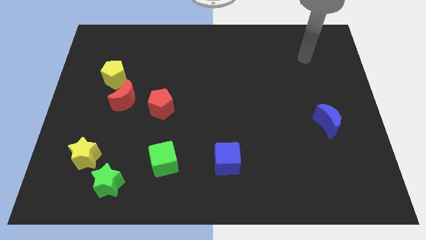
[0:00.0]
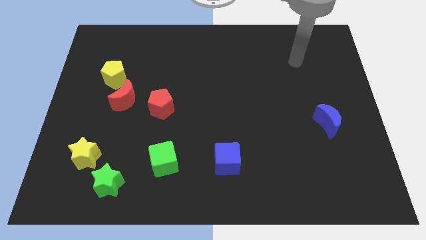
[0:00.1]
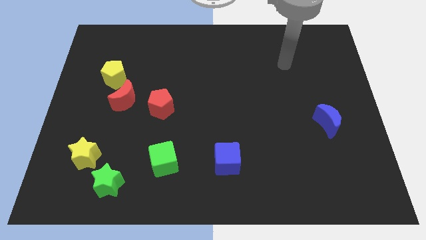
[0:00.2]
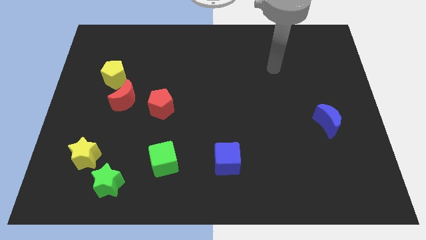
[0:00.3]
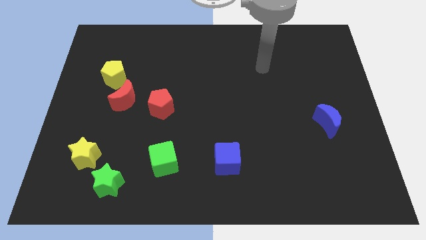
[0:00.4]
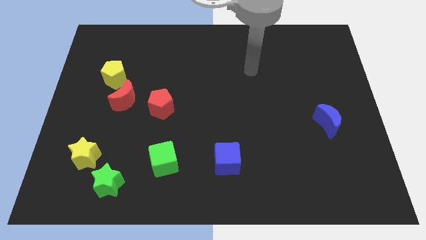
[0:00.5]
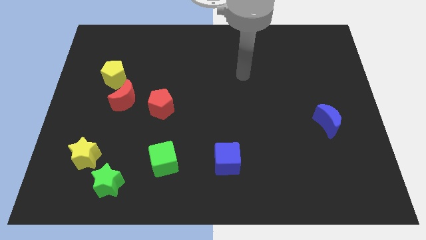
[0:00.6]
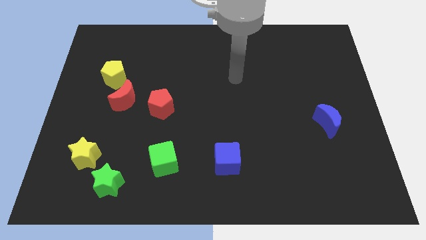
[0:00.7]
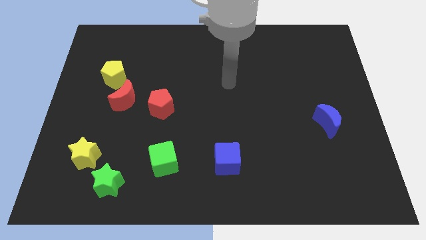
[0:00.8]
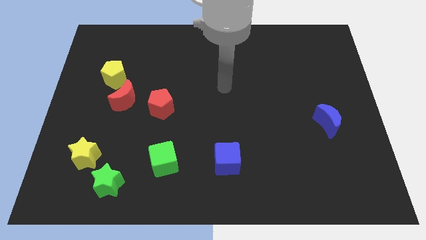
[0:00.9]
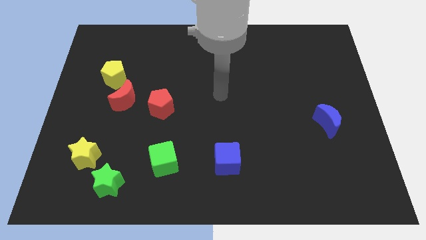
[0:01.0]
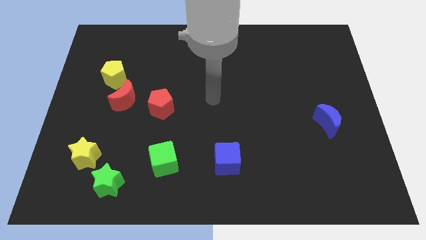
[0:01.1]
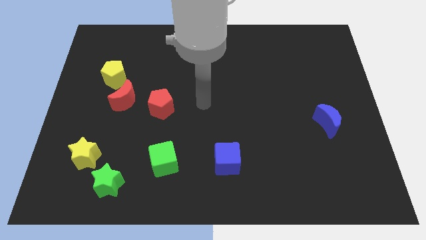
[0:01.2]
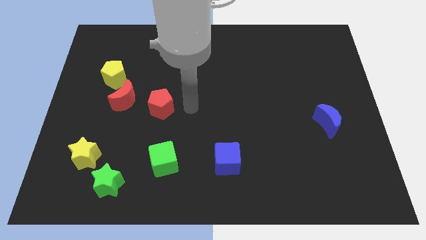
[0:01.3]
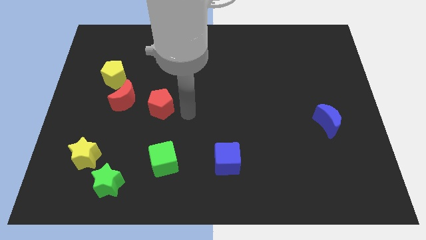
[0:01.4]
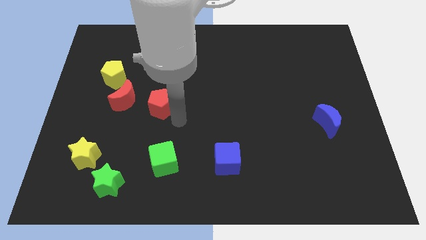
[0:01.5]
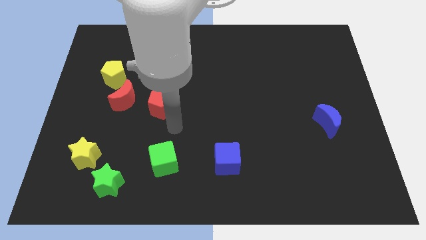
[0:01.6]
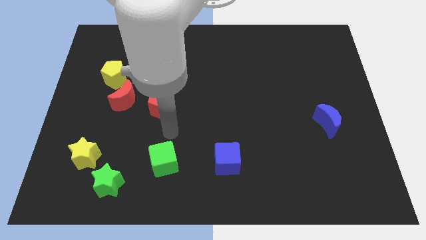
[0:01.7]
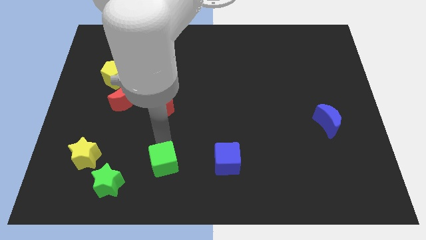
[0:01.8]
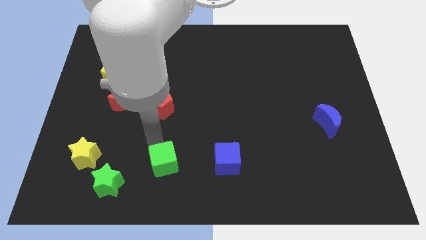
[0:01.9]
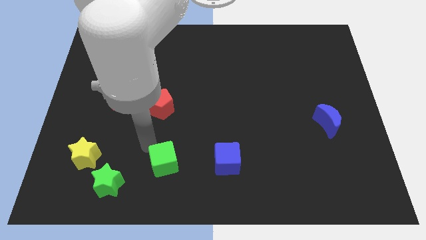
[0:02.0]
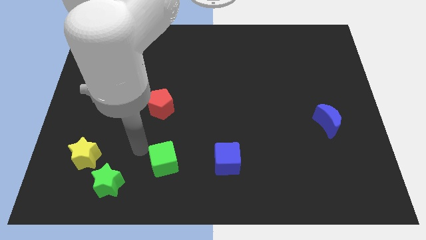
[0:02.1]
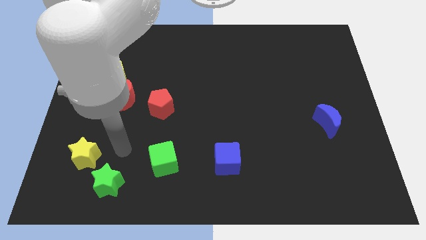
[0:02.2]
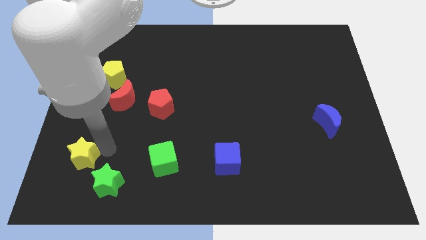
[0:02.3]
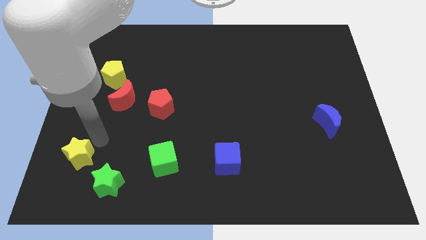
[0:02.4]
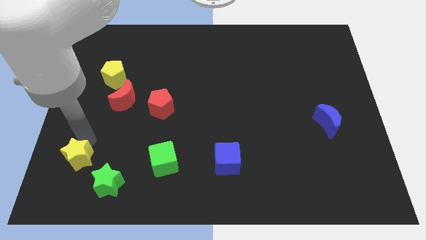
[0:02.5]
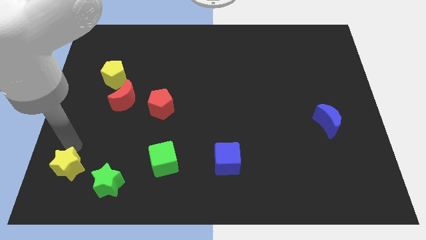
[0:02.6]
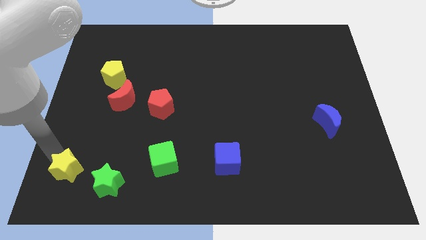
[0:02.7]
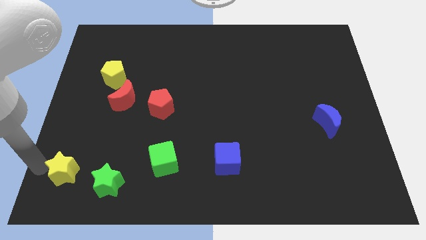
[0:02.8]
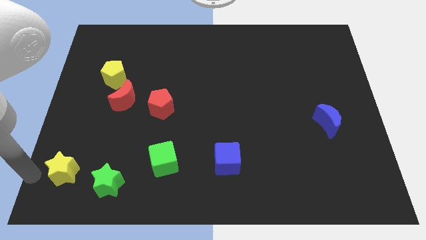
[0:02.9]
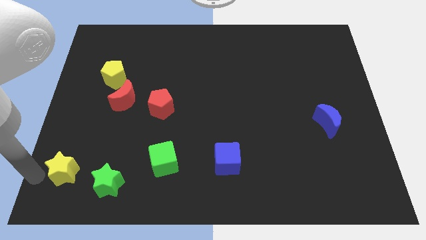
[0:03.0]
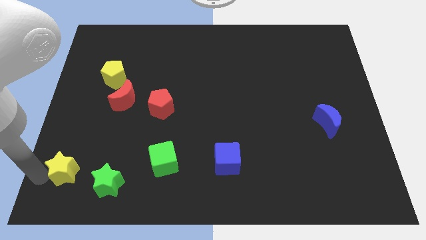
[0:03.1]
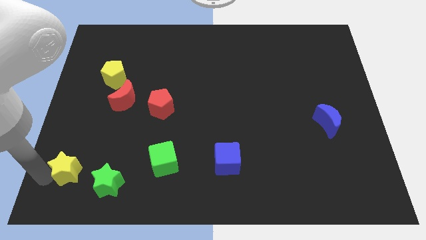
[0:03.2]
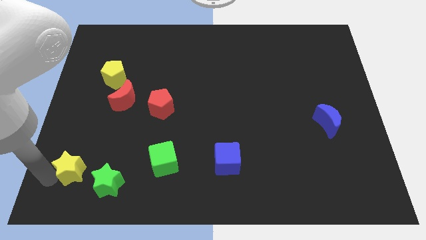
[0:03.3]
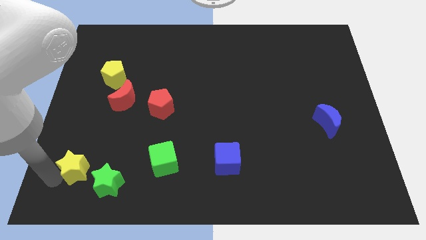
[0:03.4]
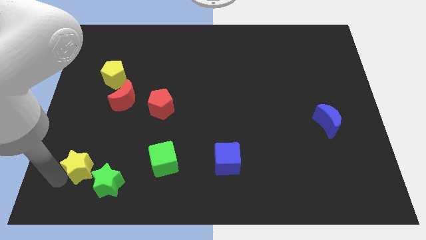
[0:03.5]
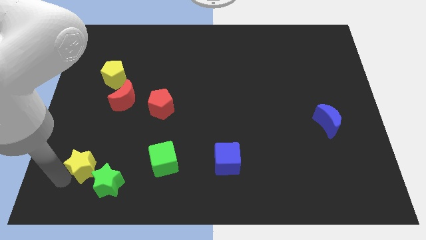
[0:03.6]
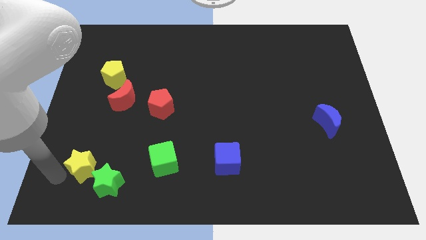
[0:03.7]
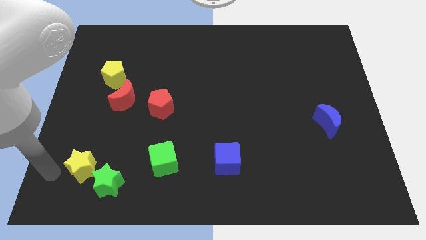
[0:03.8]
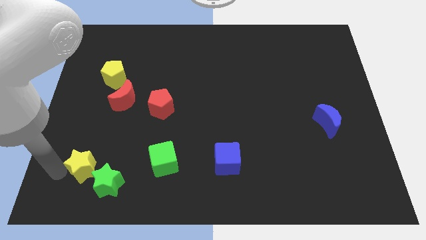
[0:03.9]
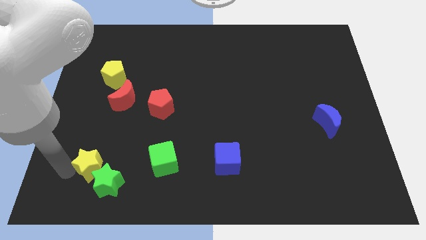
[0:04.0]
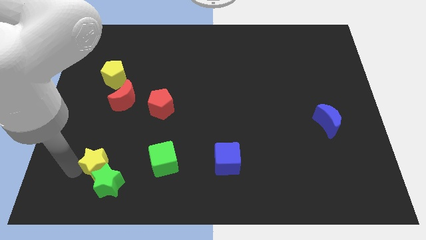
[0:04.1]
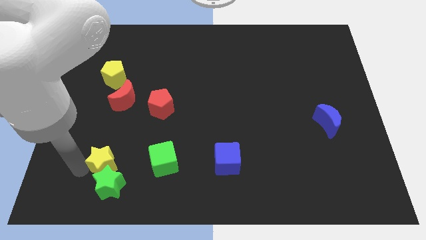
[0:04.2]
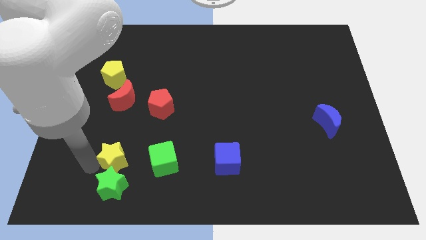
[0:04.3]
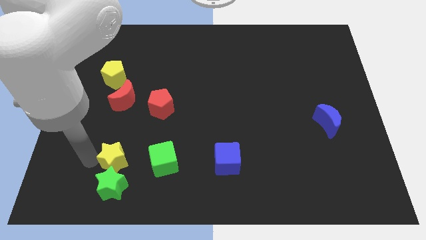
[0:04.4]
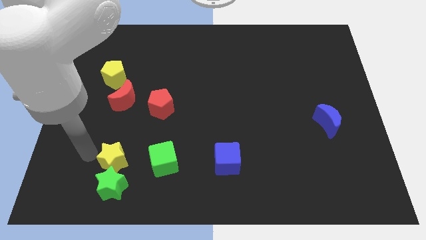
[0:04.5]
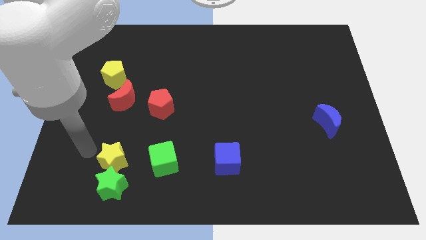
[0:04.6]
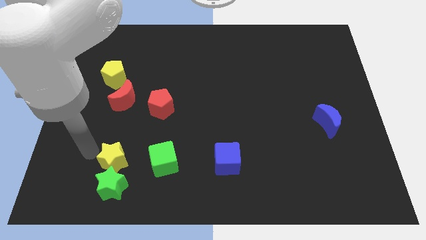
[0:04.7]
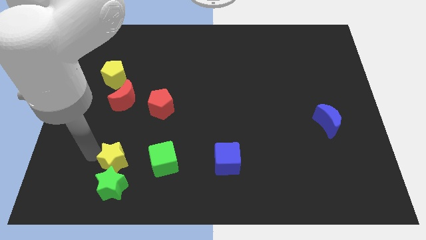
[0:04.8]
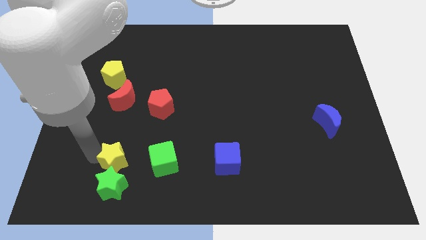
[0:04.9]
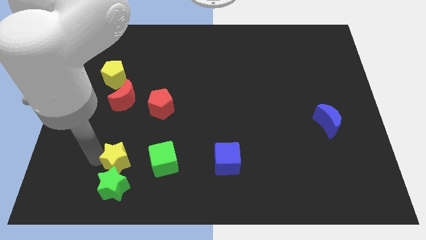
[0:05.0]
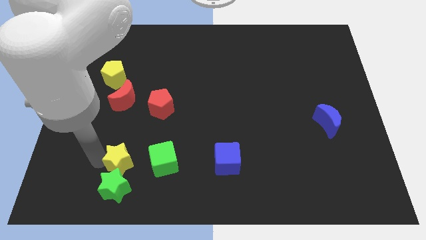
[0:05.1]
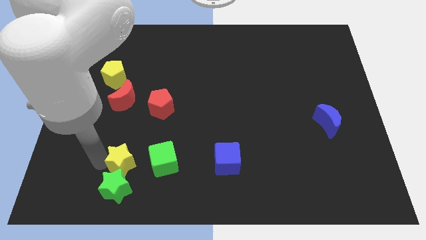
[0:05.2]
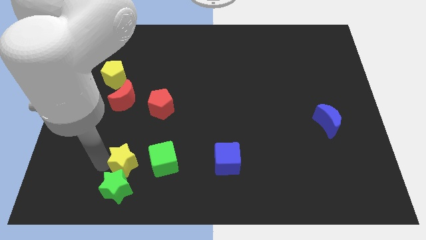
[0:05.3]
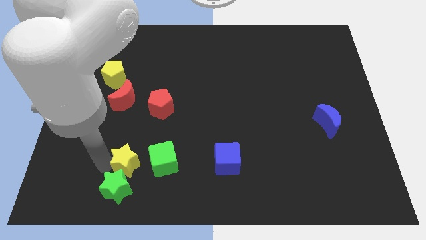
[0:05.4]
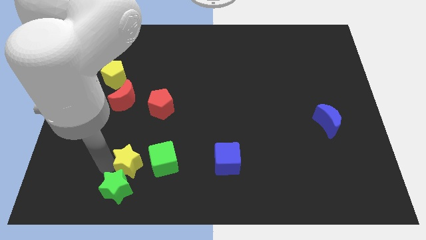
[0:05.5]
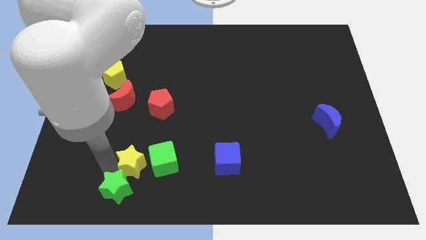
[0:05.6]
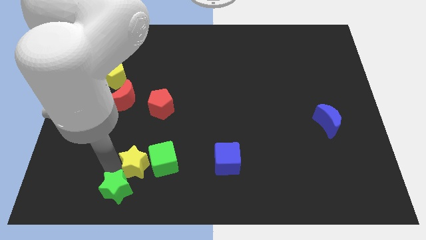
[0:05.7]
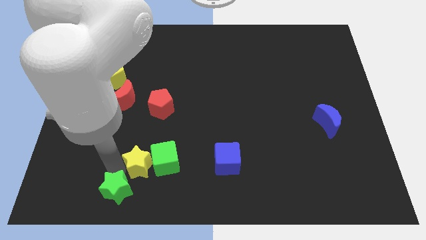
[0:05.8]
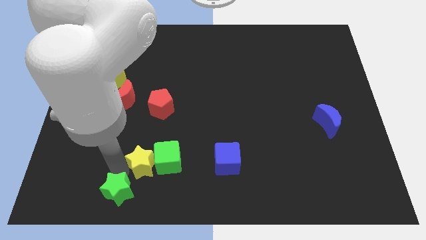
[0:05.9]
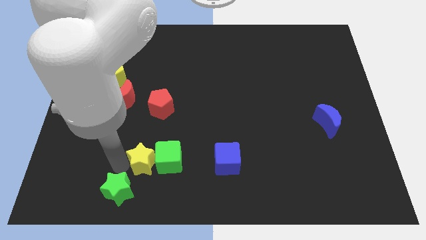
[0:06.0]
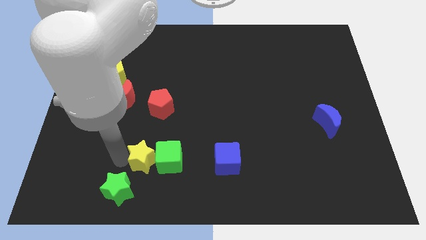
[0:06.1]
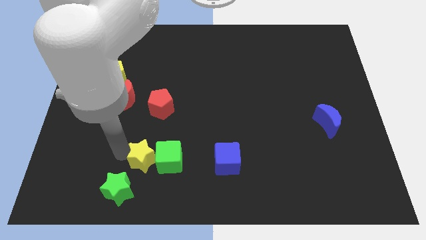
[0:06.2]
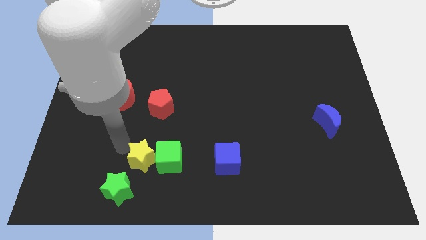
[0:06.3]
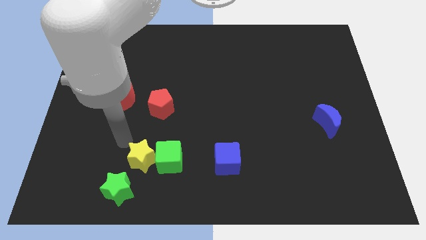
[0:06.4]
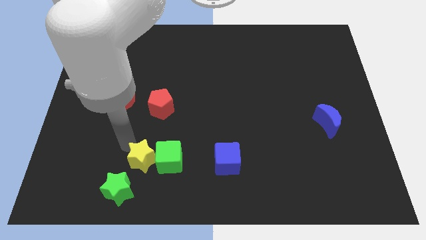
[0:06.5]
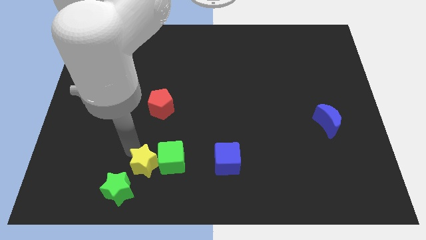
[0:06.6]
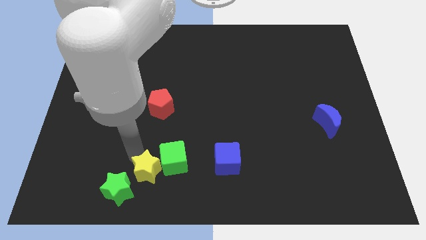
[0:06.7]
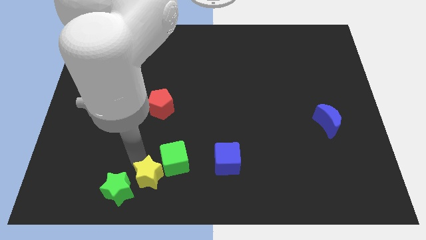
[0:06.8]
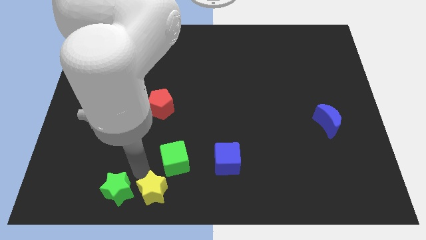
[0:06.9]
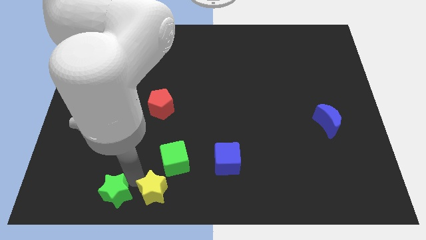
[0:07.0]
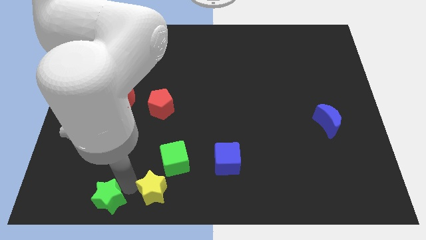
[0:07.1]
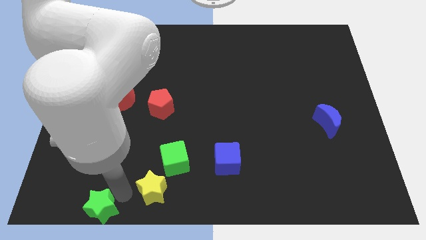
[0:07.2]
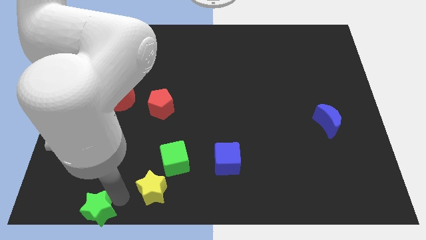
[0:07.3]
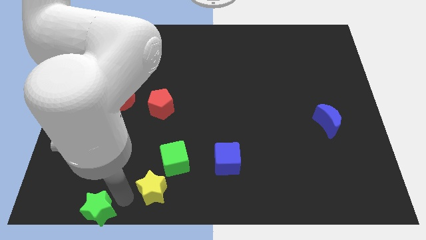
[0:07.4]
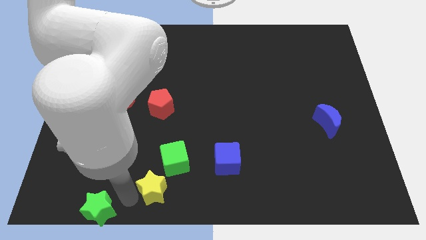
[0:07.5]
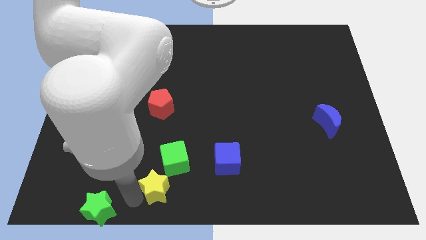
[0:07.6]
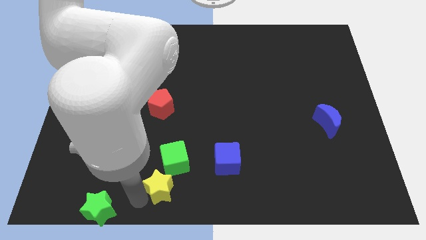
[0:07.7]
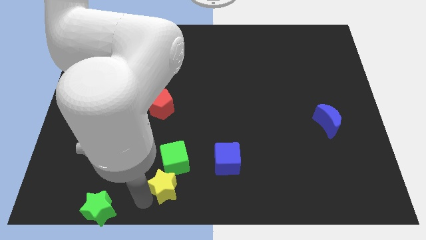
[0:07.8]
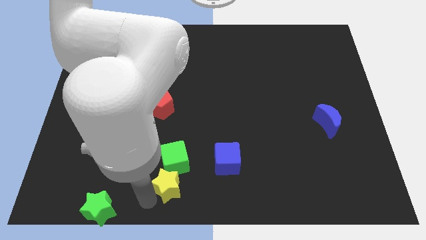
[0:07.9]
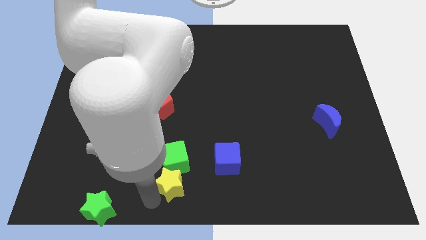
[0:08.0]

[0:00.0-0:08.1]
put the yellow star to the bottom right side of the green cube
